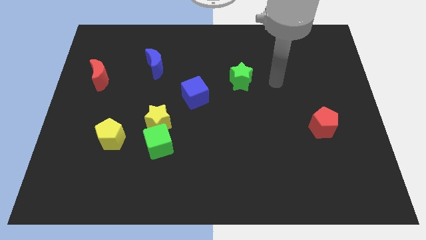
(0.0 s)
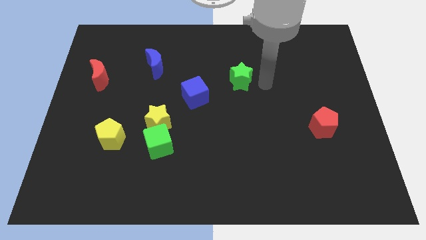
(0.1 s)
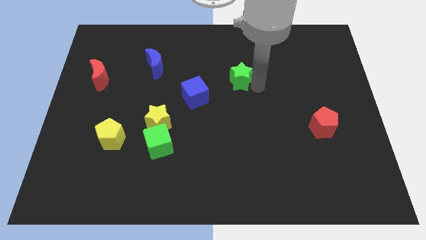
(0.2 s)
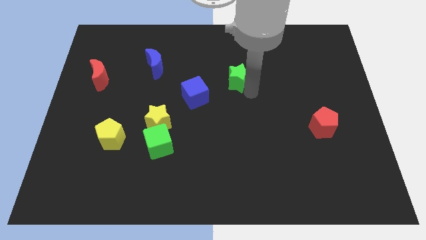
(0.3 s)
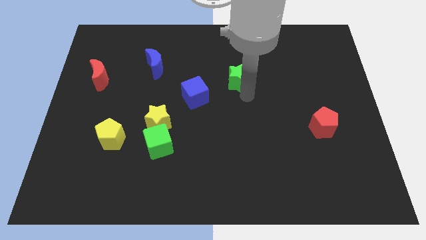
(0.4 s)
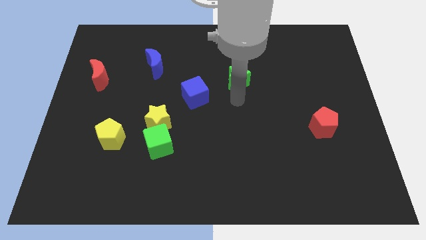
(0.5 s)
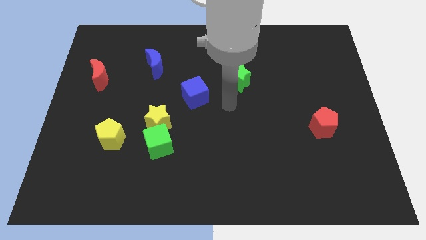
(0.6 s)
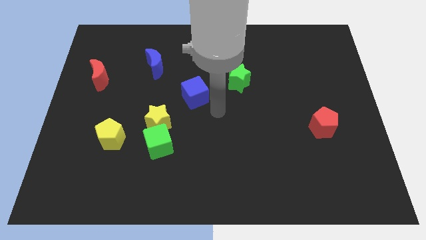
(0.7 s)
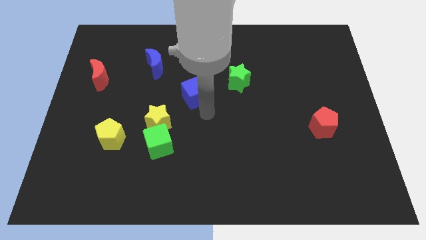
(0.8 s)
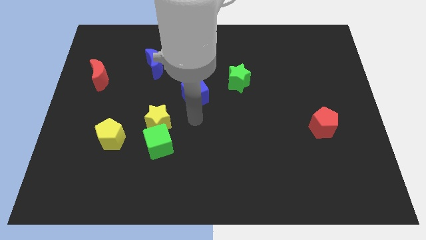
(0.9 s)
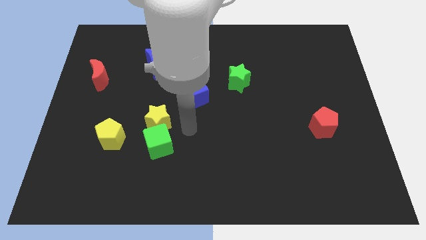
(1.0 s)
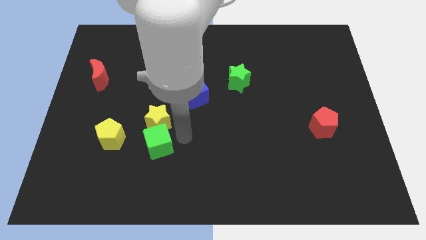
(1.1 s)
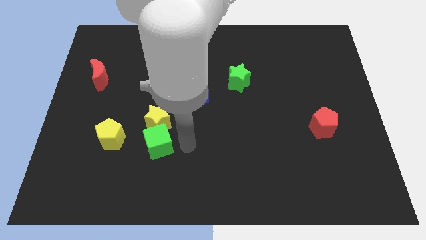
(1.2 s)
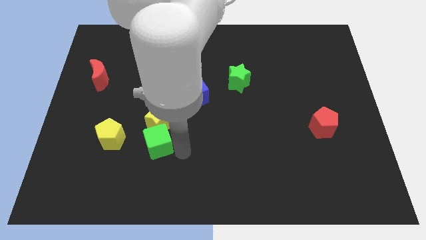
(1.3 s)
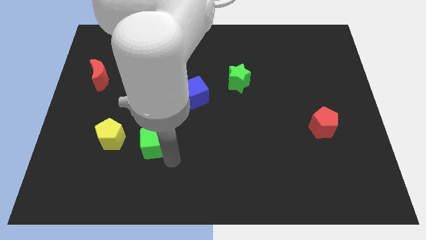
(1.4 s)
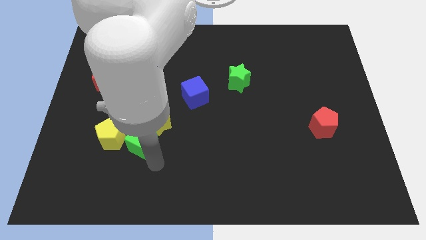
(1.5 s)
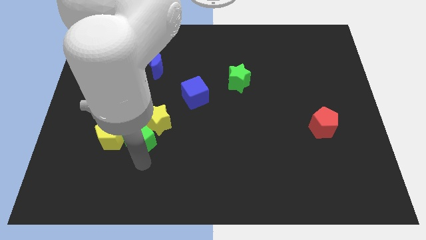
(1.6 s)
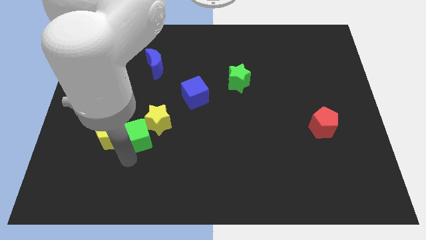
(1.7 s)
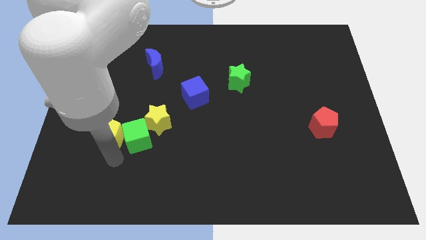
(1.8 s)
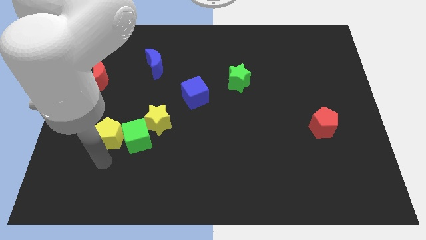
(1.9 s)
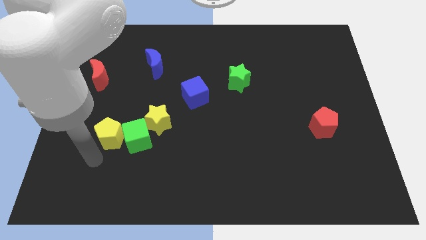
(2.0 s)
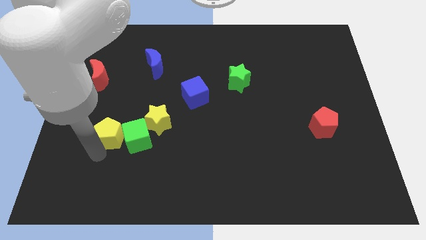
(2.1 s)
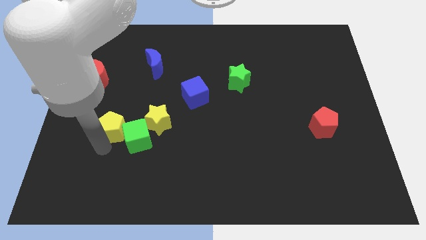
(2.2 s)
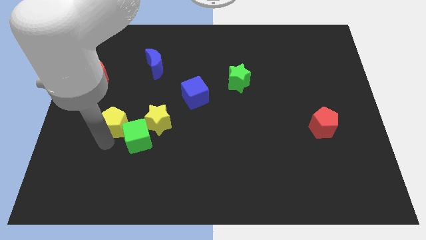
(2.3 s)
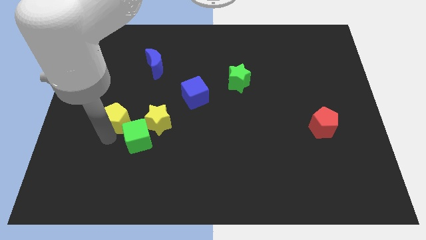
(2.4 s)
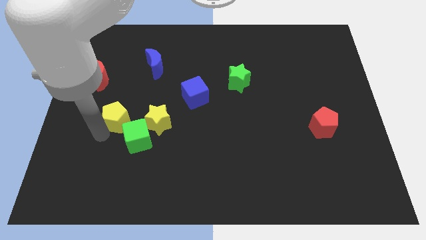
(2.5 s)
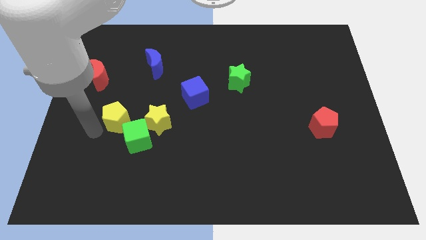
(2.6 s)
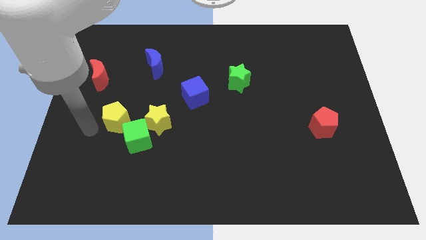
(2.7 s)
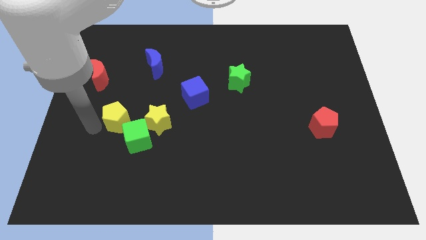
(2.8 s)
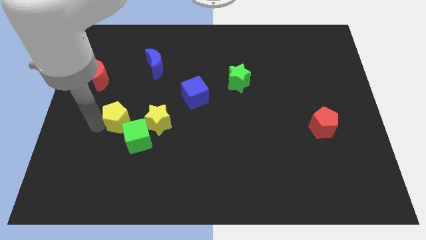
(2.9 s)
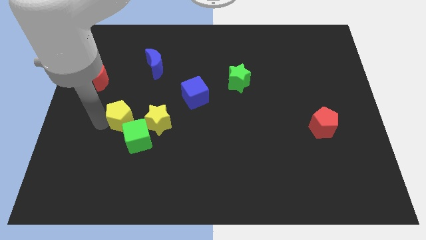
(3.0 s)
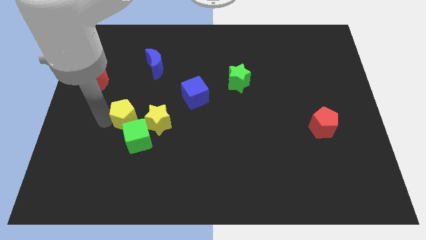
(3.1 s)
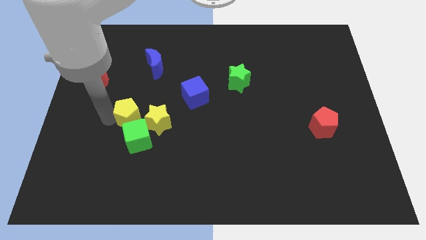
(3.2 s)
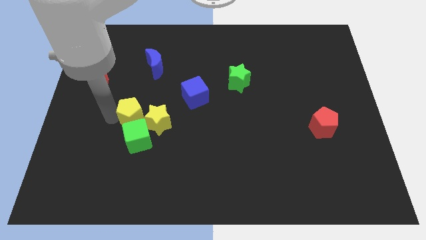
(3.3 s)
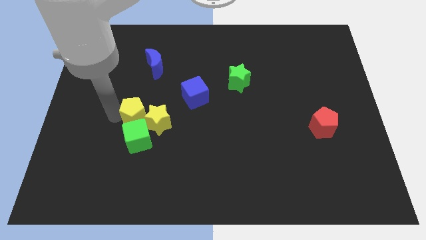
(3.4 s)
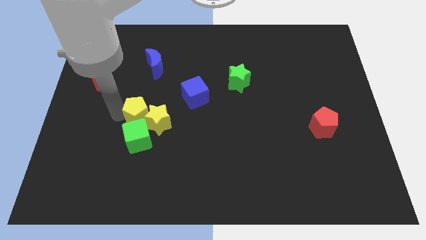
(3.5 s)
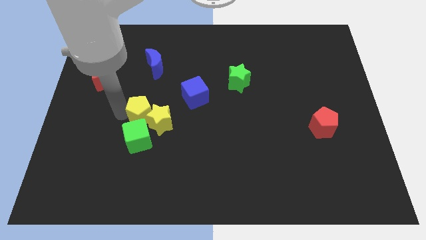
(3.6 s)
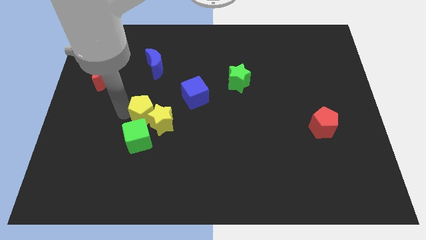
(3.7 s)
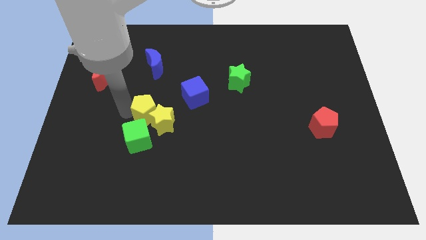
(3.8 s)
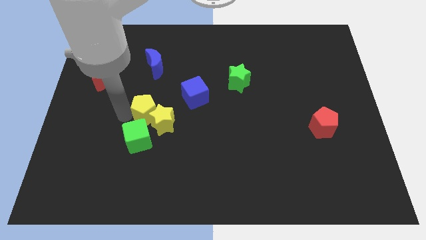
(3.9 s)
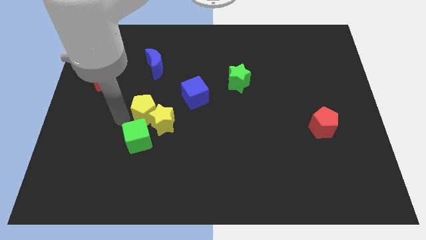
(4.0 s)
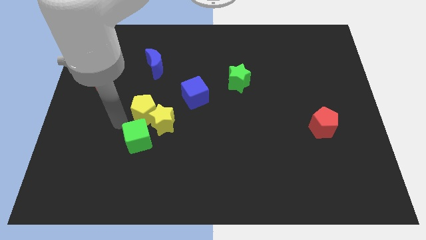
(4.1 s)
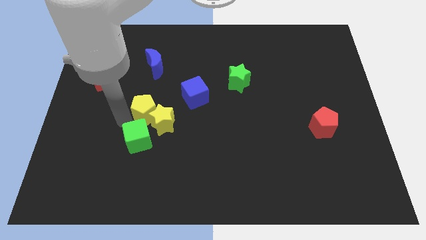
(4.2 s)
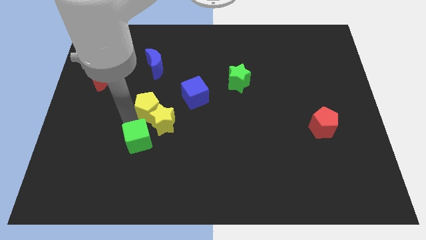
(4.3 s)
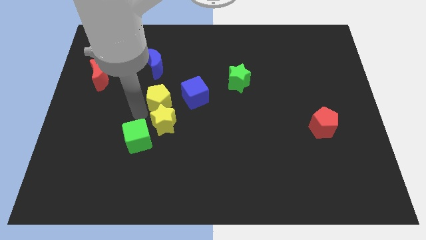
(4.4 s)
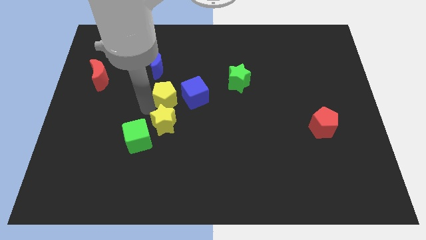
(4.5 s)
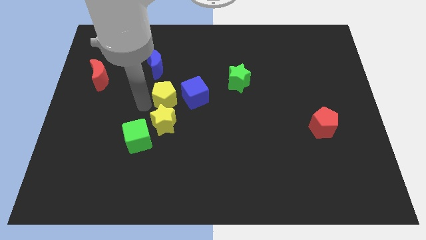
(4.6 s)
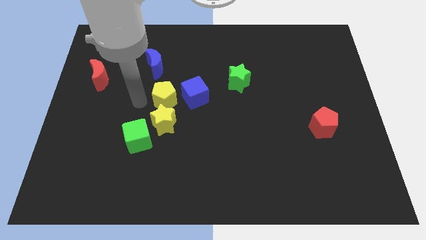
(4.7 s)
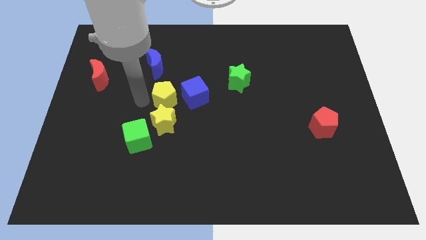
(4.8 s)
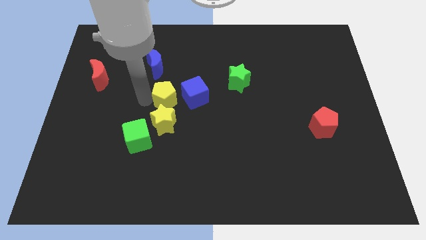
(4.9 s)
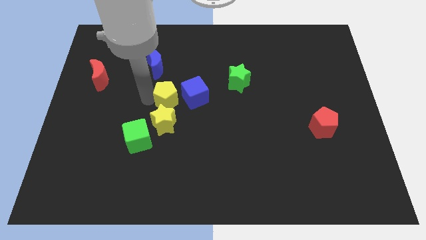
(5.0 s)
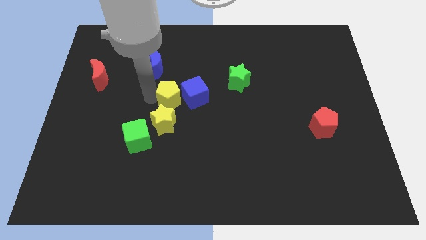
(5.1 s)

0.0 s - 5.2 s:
push the yellow pentagon to the blue cube

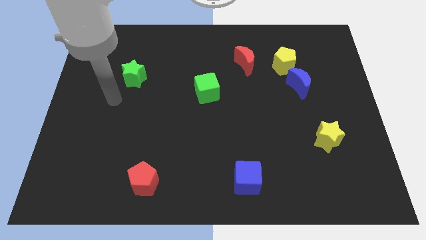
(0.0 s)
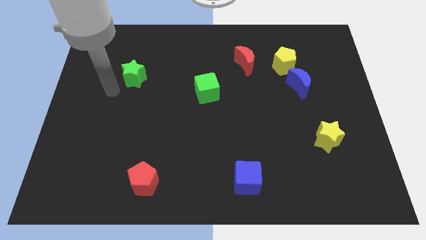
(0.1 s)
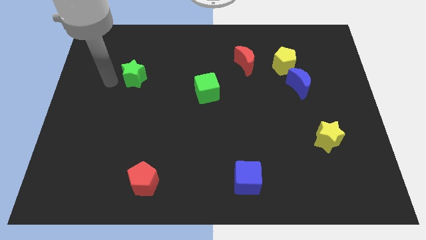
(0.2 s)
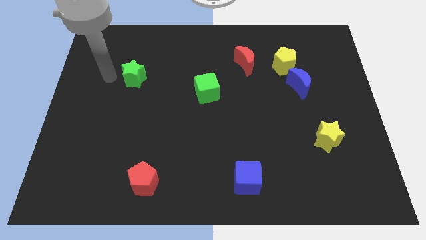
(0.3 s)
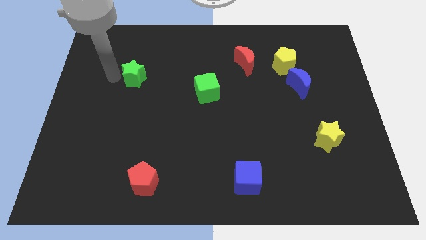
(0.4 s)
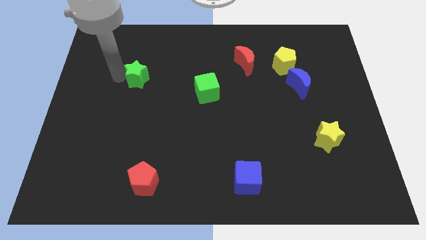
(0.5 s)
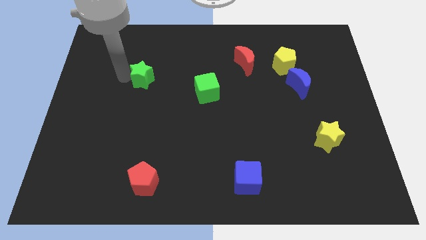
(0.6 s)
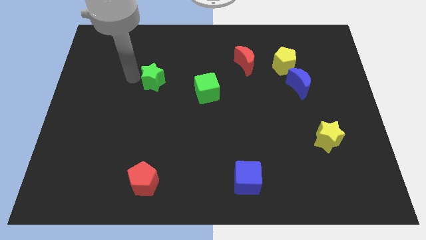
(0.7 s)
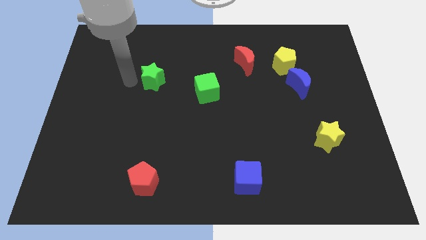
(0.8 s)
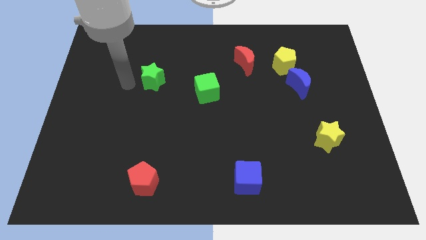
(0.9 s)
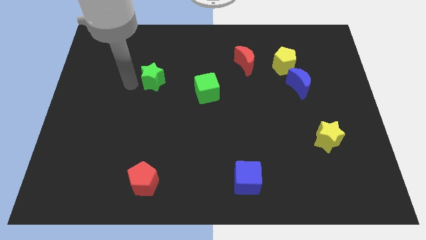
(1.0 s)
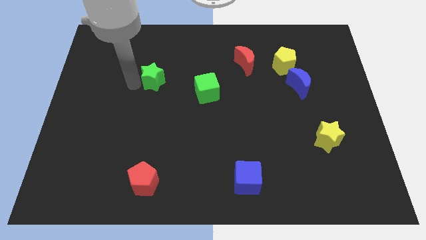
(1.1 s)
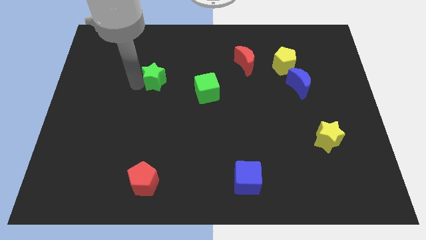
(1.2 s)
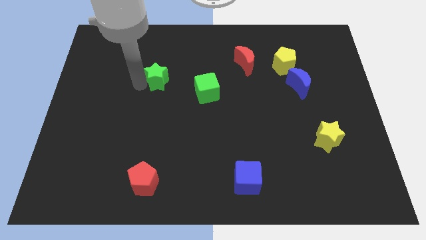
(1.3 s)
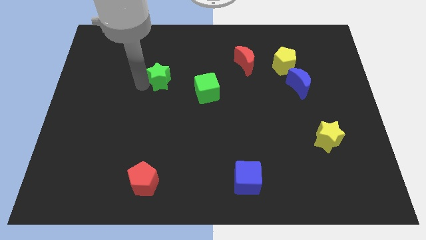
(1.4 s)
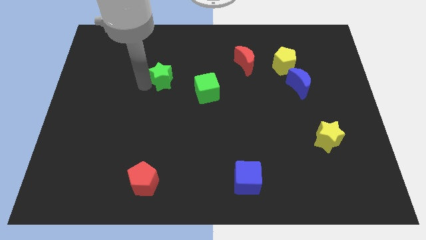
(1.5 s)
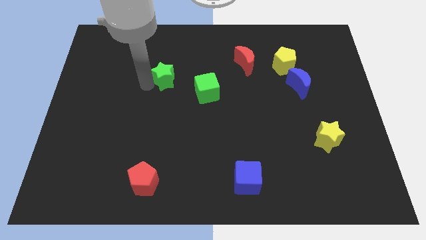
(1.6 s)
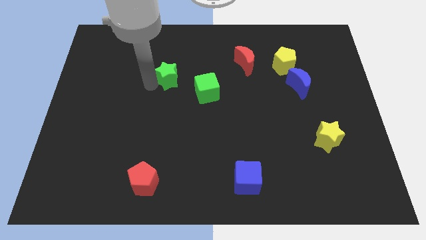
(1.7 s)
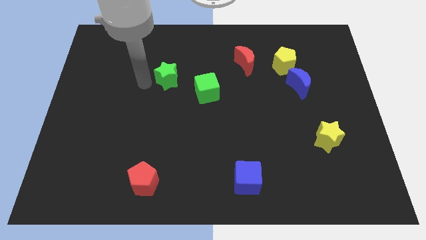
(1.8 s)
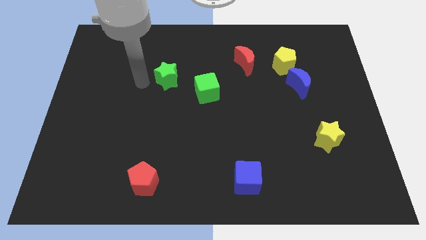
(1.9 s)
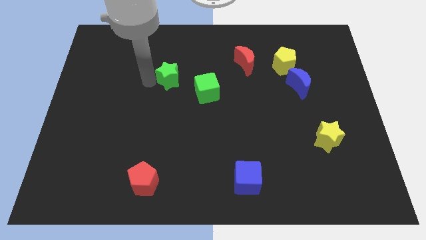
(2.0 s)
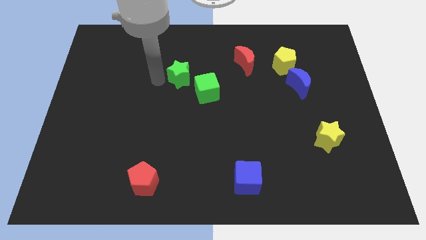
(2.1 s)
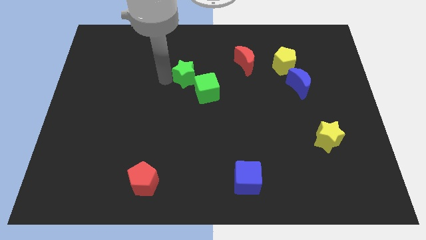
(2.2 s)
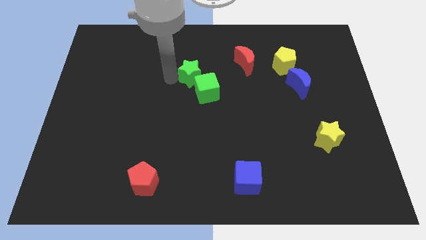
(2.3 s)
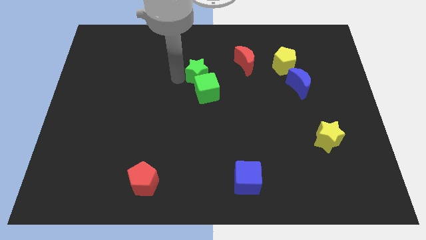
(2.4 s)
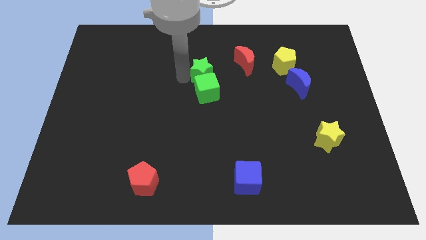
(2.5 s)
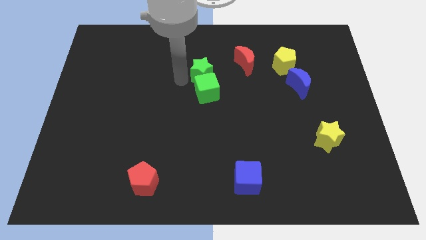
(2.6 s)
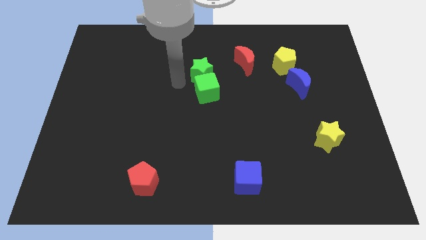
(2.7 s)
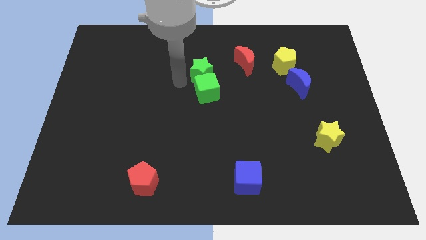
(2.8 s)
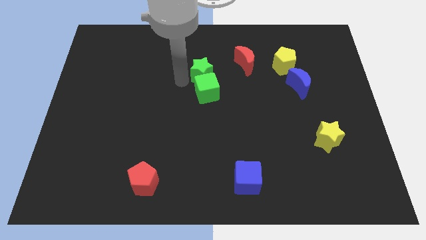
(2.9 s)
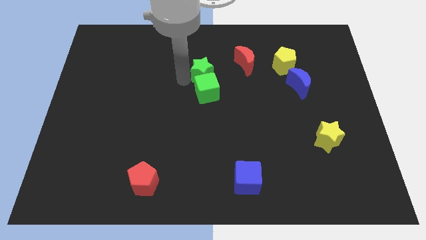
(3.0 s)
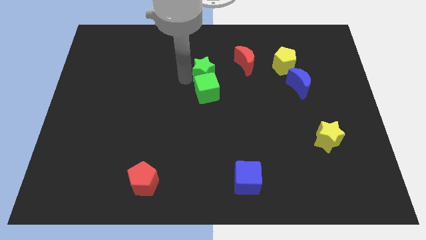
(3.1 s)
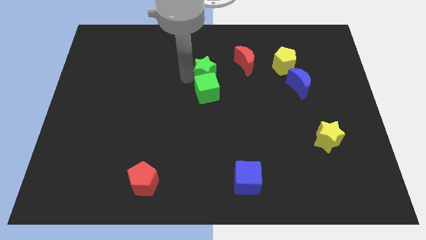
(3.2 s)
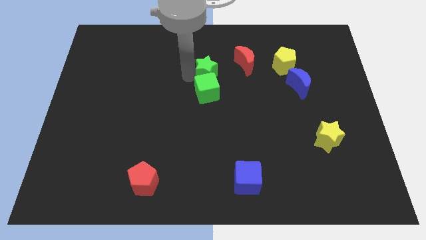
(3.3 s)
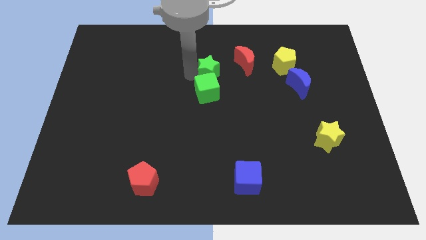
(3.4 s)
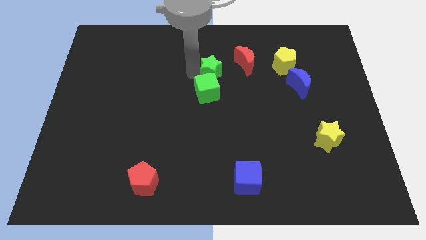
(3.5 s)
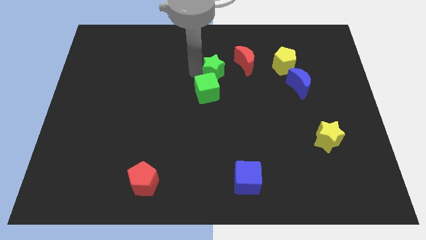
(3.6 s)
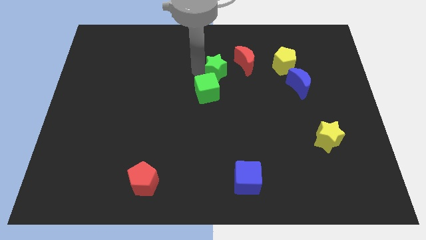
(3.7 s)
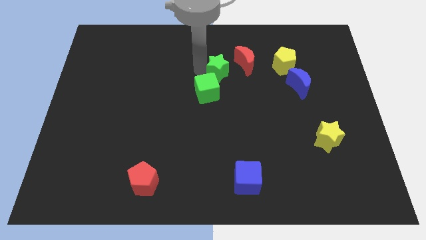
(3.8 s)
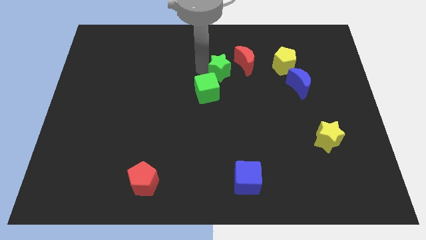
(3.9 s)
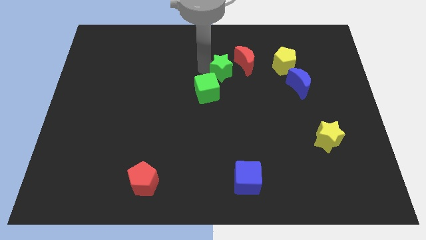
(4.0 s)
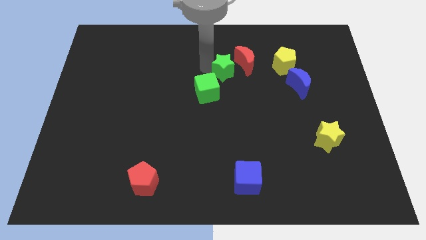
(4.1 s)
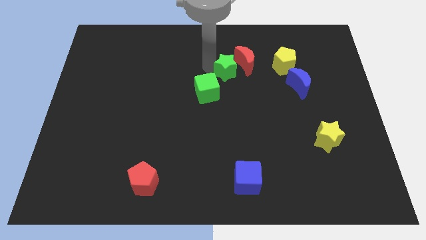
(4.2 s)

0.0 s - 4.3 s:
slide the green star close to the red moon
